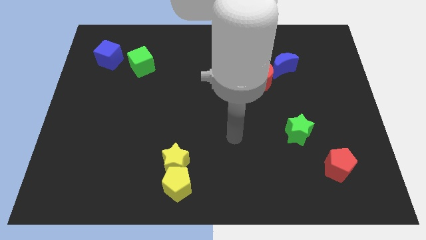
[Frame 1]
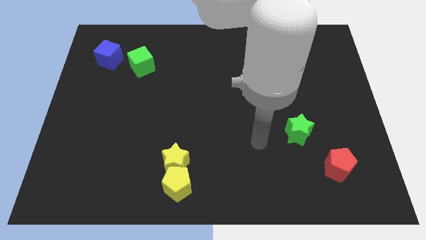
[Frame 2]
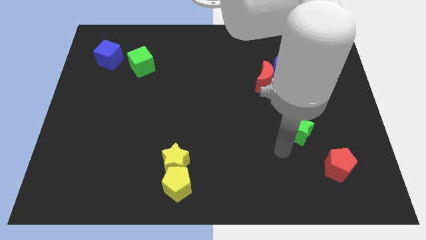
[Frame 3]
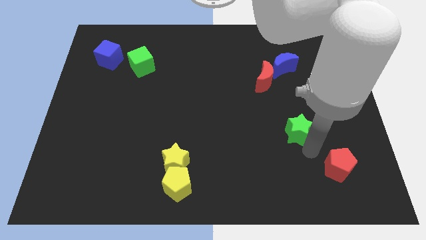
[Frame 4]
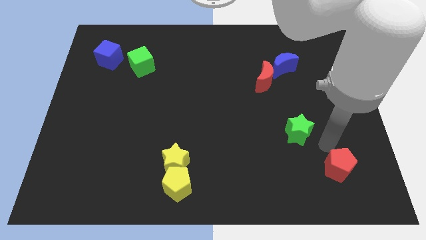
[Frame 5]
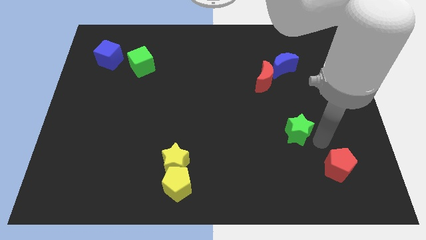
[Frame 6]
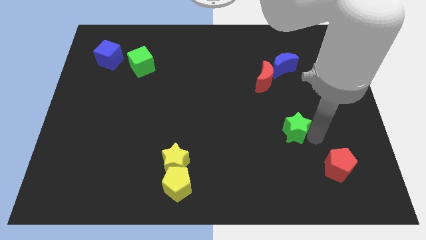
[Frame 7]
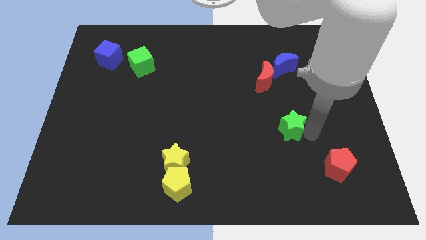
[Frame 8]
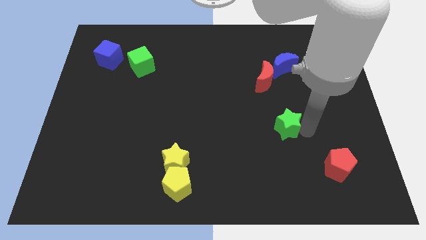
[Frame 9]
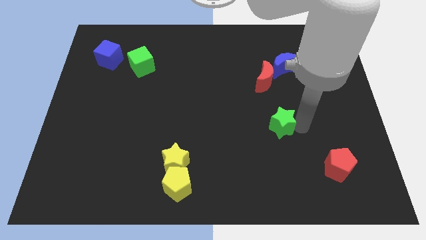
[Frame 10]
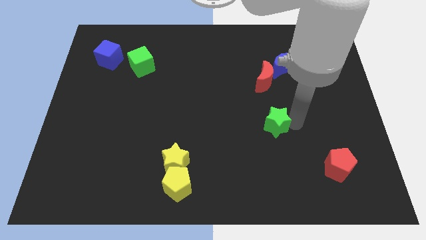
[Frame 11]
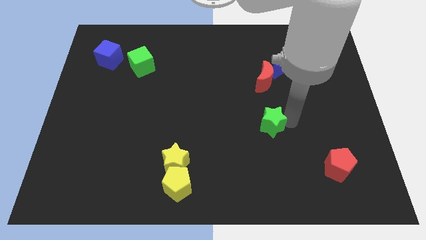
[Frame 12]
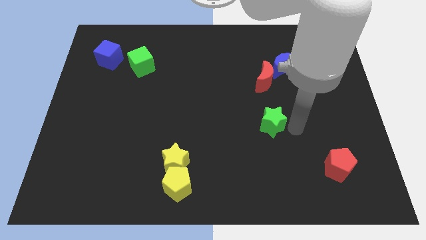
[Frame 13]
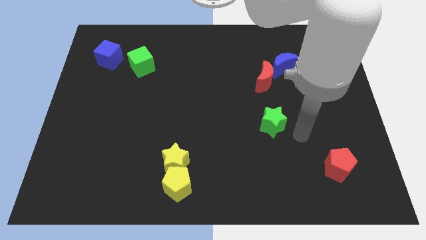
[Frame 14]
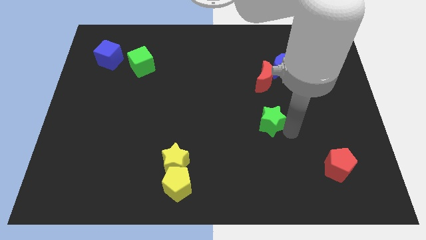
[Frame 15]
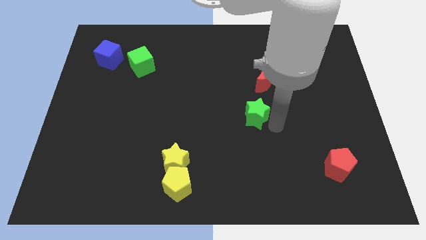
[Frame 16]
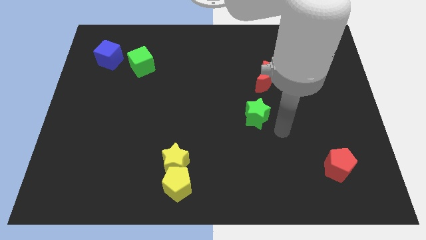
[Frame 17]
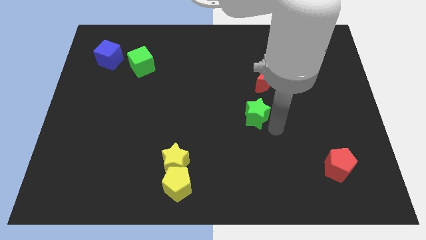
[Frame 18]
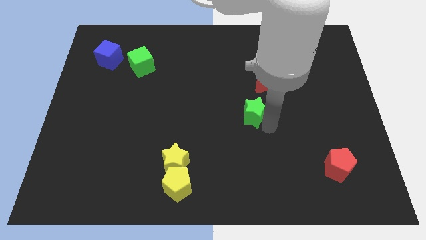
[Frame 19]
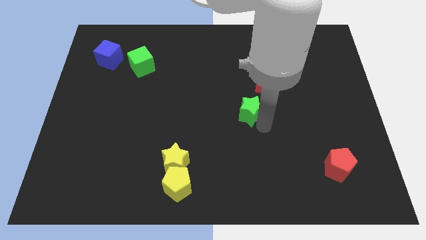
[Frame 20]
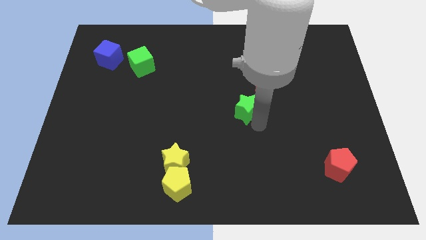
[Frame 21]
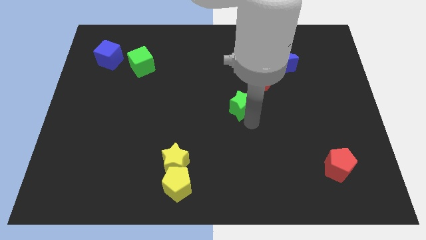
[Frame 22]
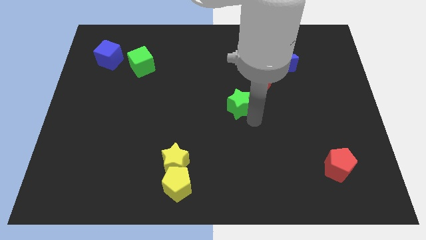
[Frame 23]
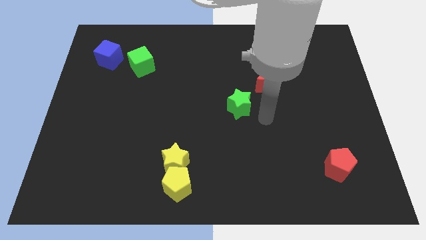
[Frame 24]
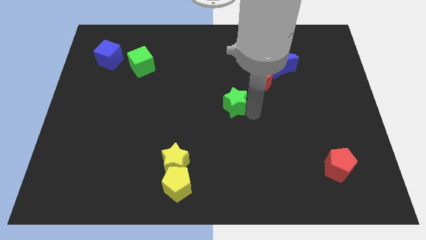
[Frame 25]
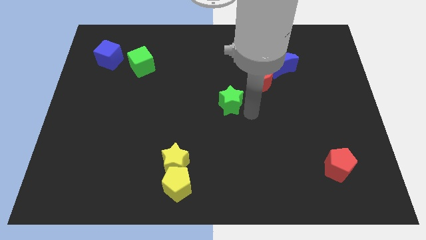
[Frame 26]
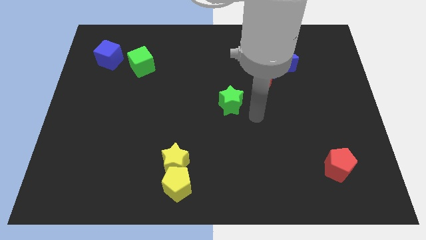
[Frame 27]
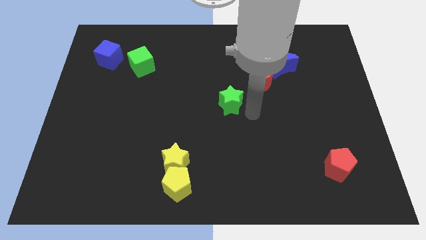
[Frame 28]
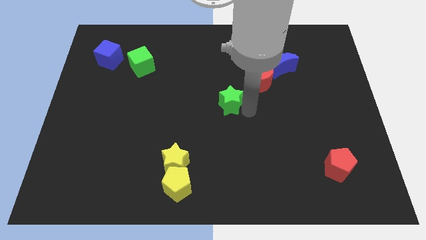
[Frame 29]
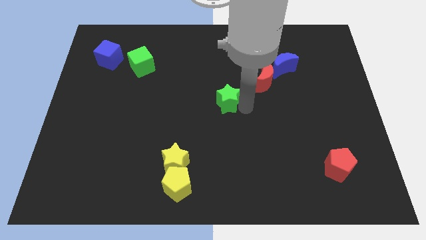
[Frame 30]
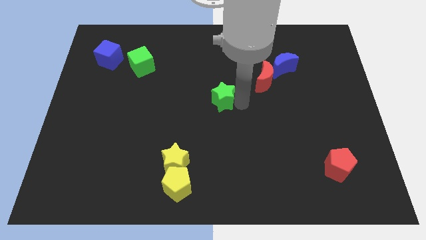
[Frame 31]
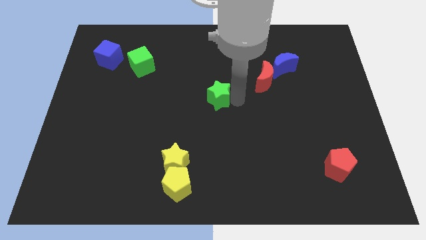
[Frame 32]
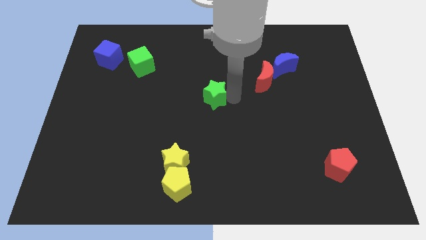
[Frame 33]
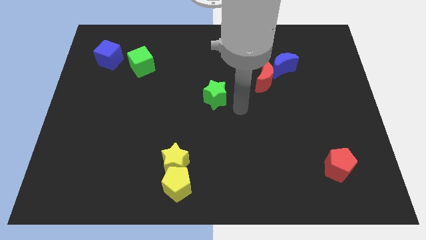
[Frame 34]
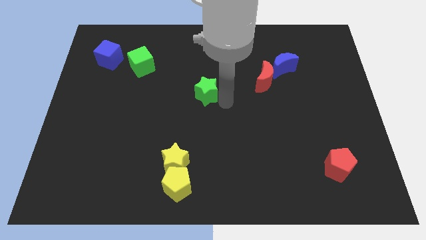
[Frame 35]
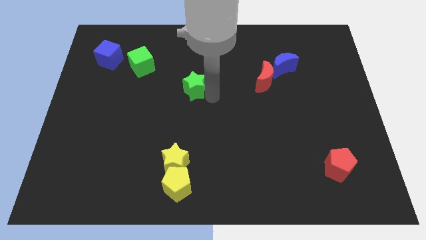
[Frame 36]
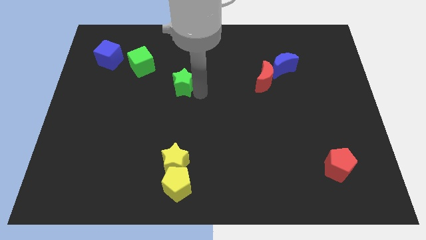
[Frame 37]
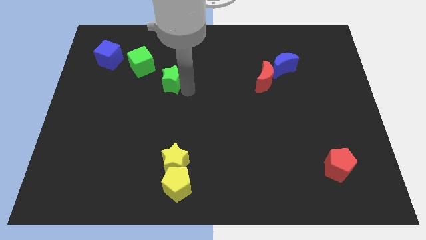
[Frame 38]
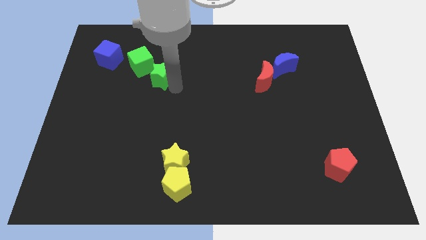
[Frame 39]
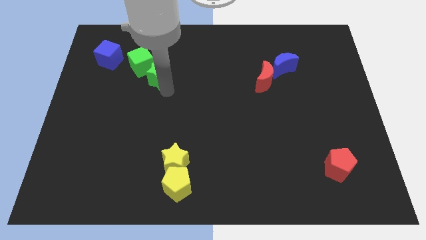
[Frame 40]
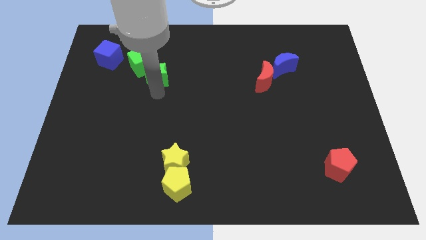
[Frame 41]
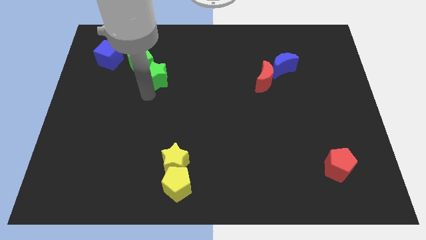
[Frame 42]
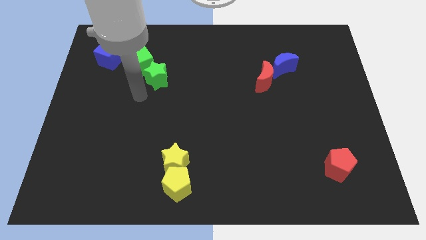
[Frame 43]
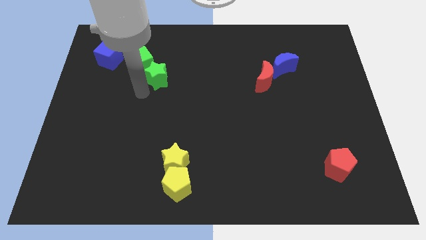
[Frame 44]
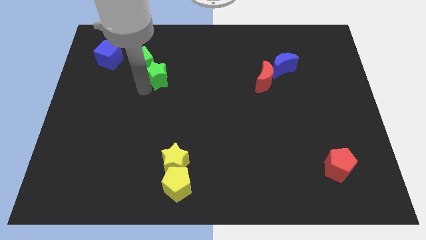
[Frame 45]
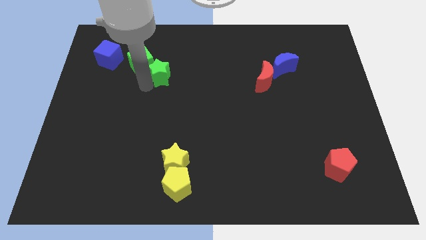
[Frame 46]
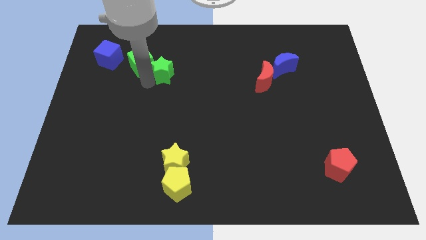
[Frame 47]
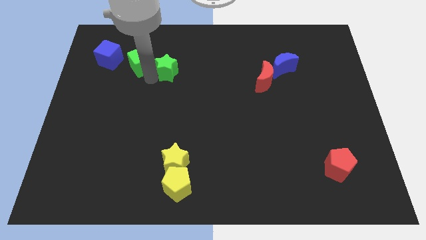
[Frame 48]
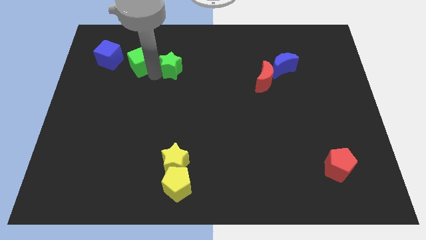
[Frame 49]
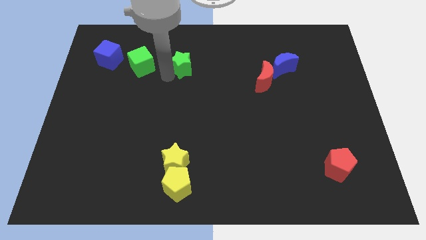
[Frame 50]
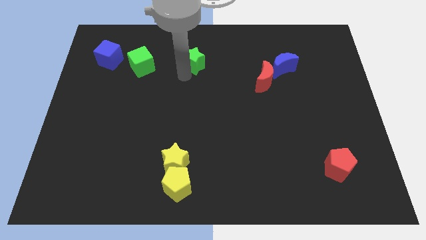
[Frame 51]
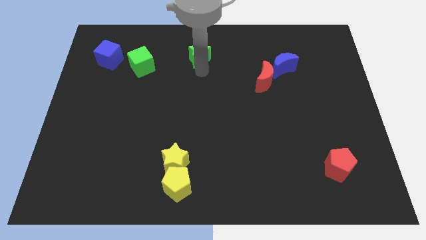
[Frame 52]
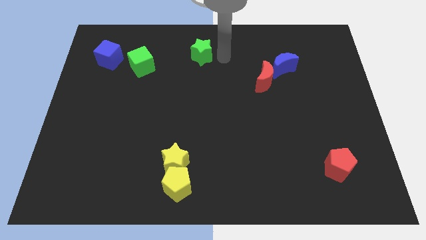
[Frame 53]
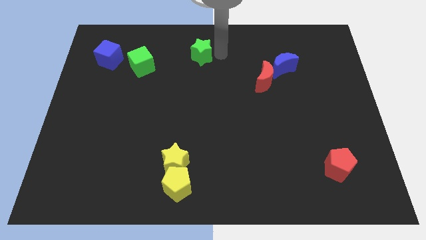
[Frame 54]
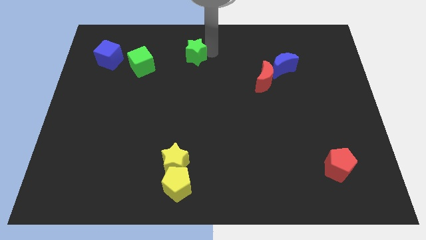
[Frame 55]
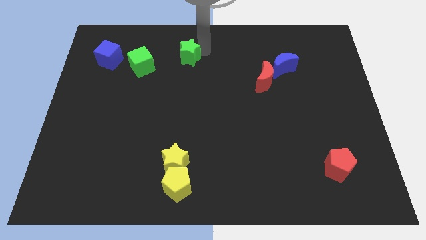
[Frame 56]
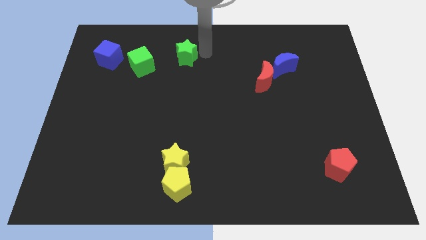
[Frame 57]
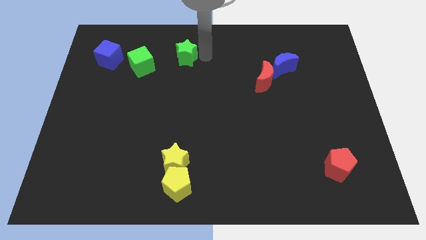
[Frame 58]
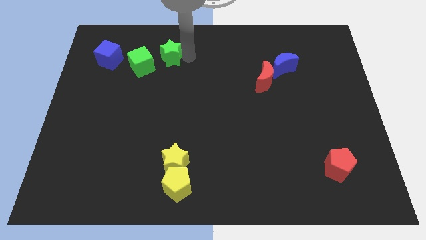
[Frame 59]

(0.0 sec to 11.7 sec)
move the green star to the right of the blue cube

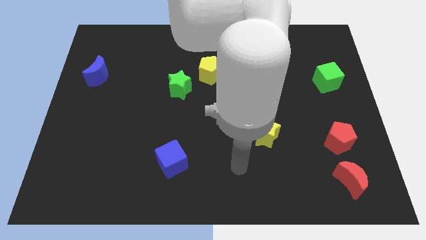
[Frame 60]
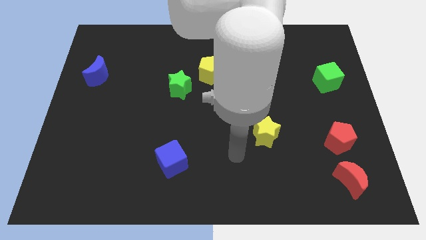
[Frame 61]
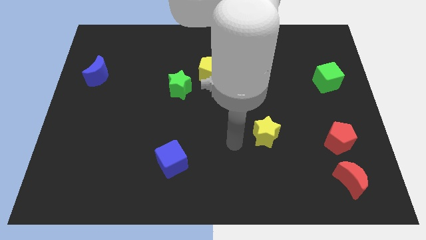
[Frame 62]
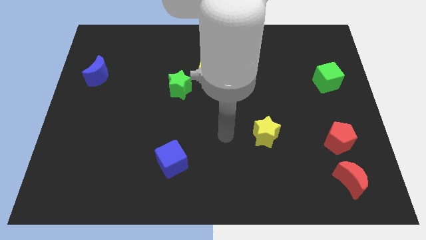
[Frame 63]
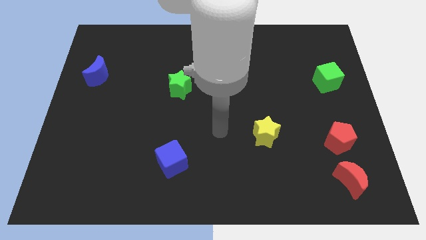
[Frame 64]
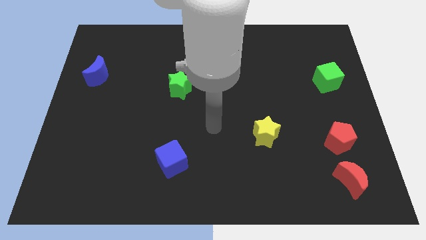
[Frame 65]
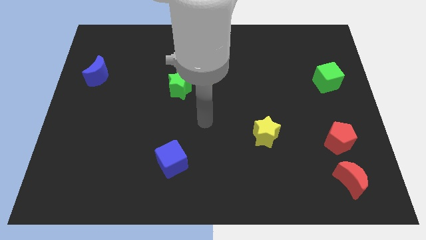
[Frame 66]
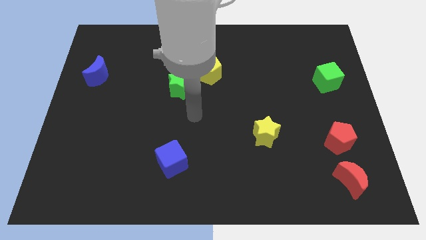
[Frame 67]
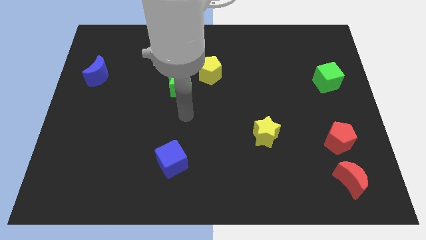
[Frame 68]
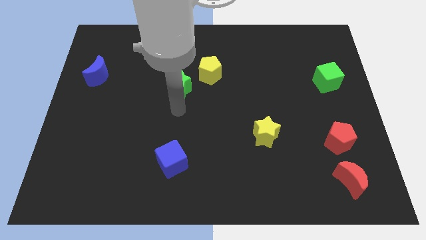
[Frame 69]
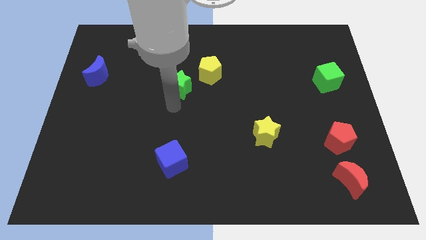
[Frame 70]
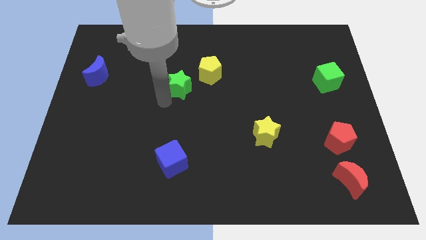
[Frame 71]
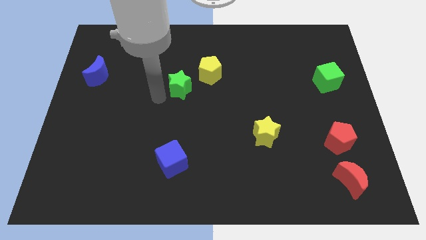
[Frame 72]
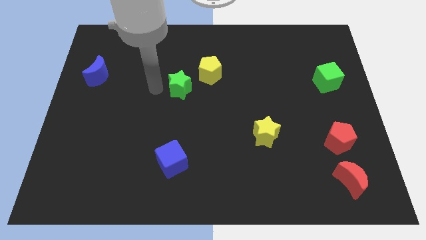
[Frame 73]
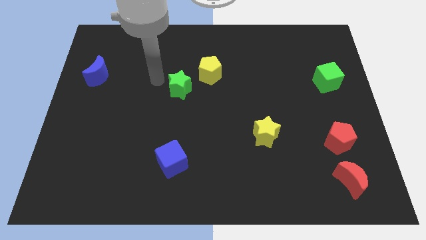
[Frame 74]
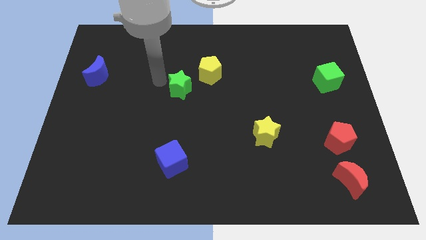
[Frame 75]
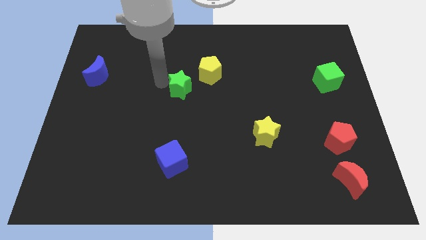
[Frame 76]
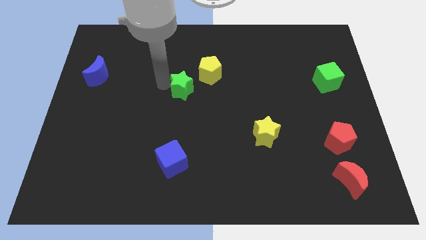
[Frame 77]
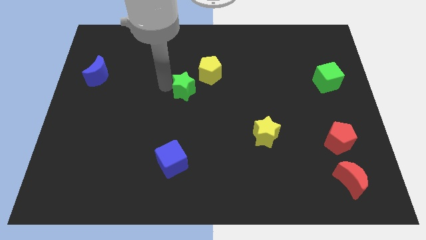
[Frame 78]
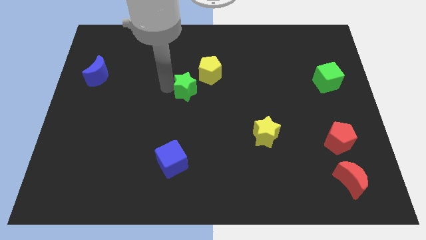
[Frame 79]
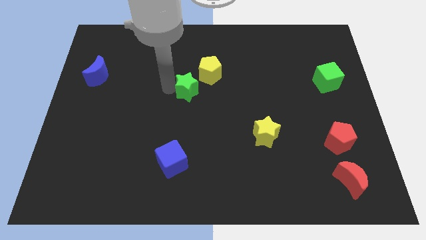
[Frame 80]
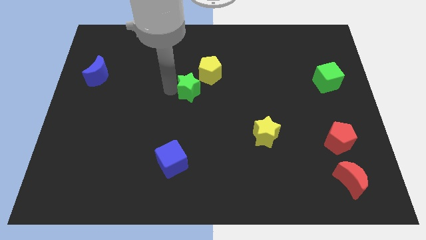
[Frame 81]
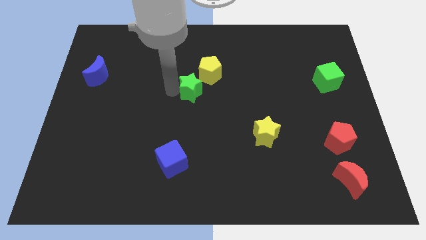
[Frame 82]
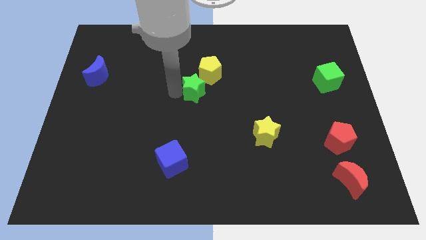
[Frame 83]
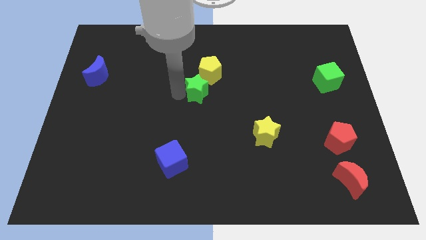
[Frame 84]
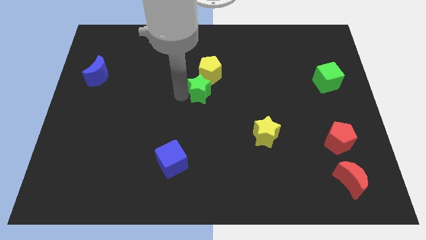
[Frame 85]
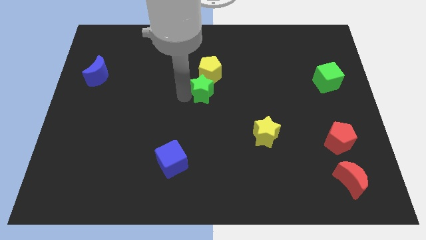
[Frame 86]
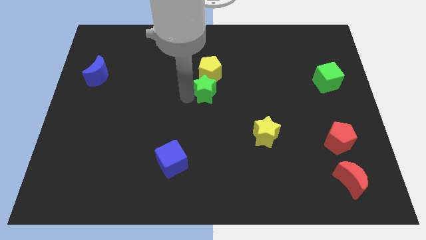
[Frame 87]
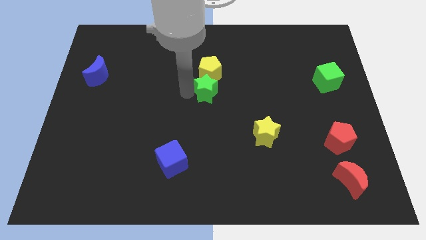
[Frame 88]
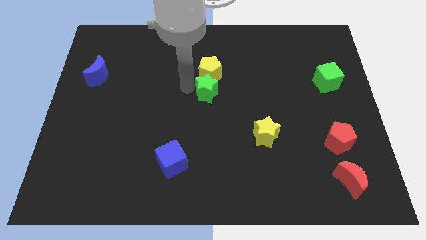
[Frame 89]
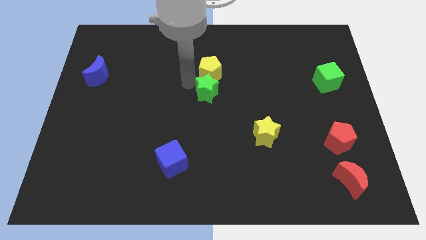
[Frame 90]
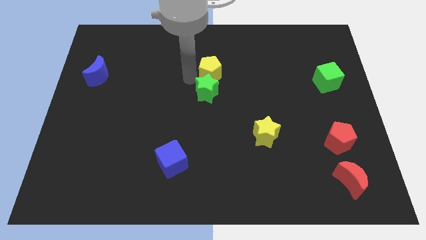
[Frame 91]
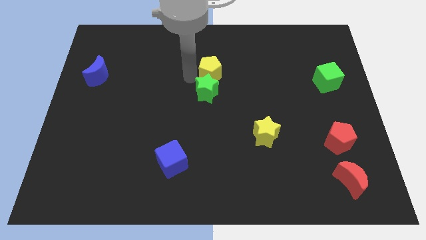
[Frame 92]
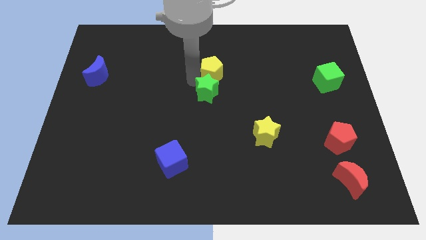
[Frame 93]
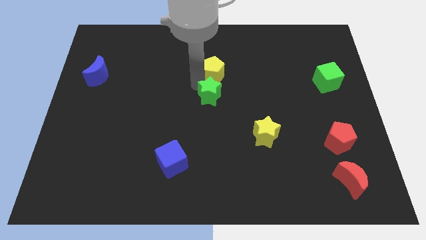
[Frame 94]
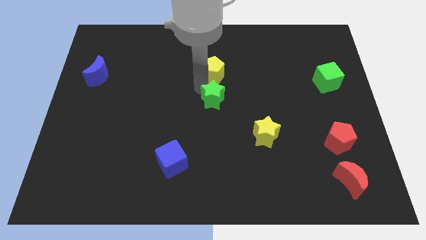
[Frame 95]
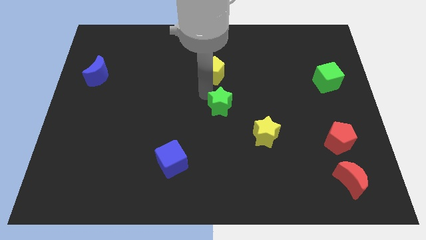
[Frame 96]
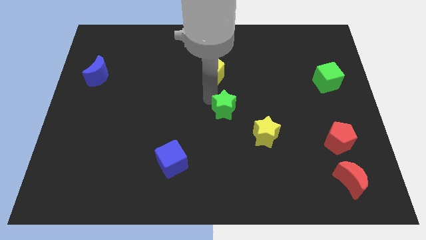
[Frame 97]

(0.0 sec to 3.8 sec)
put the green star diagonally up and to the left of the yellow star
